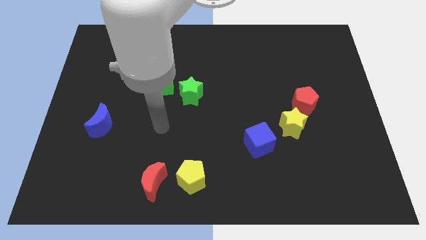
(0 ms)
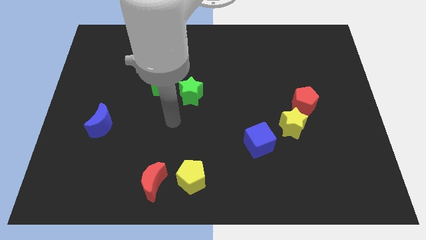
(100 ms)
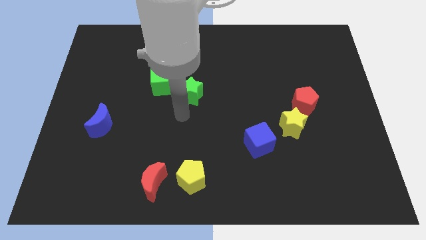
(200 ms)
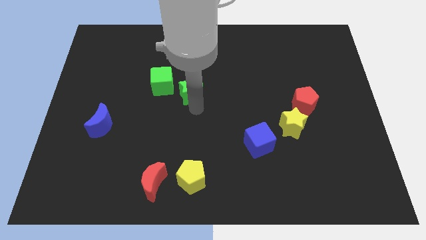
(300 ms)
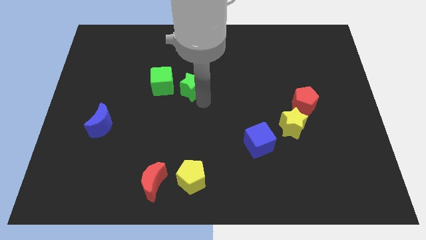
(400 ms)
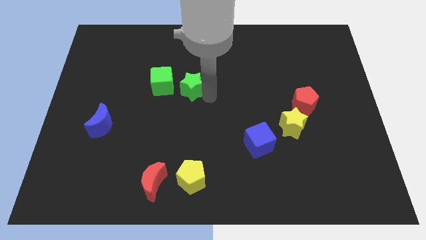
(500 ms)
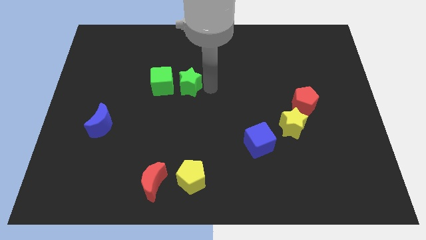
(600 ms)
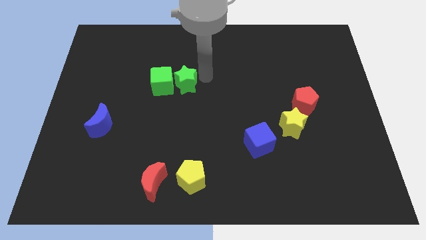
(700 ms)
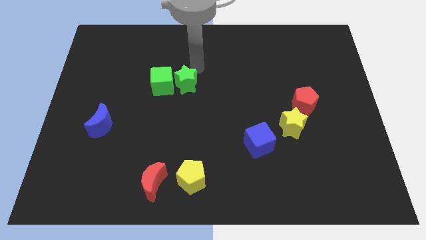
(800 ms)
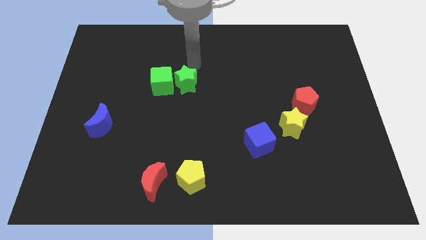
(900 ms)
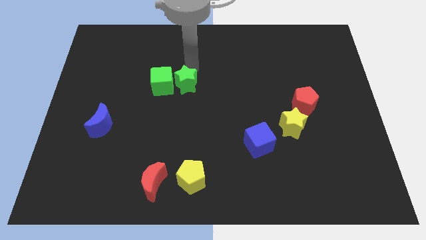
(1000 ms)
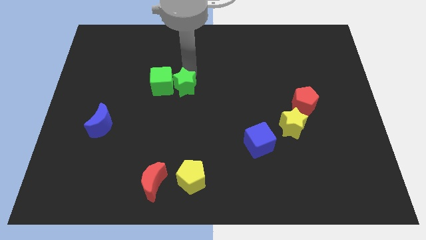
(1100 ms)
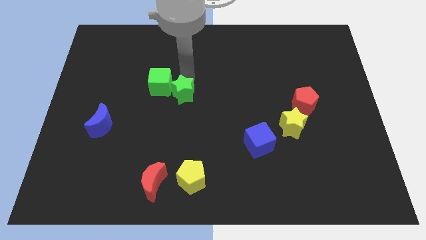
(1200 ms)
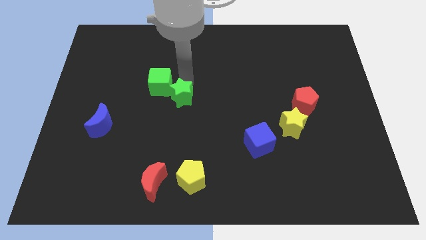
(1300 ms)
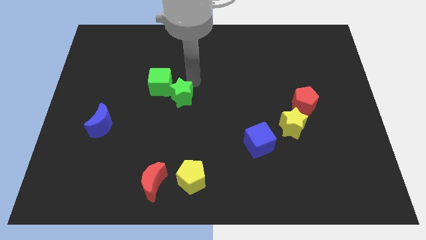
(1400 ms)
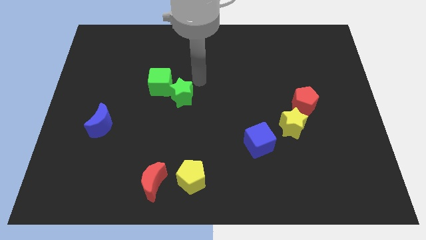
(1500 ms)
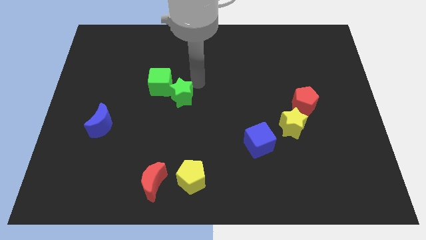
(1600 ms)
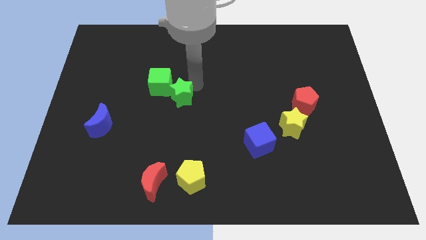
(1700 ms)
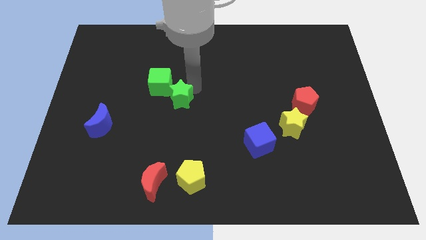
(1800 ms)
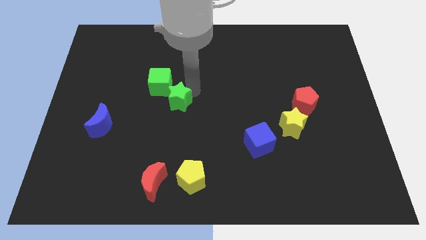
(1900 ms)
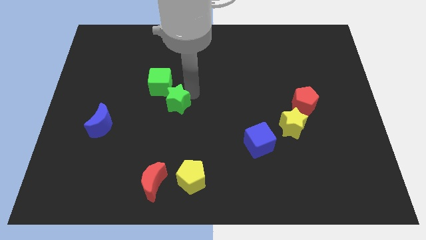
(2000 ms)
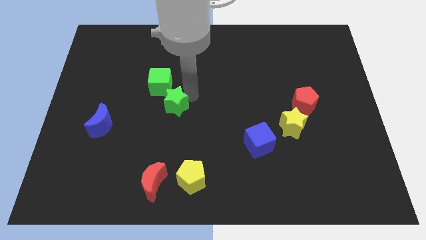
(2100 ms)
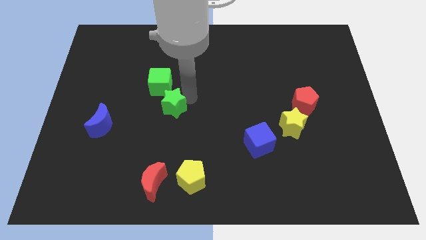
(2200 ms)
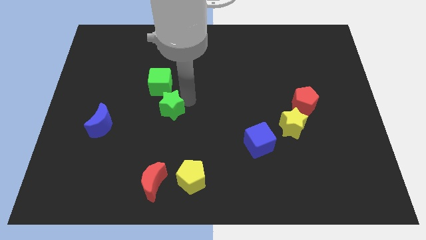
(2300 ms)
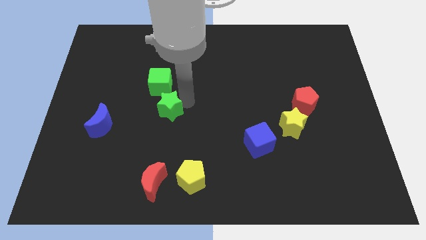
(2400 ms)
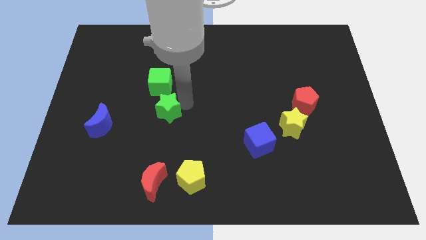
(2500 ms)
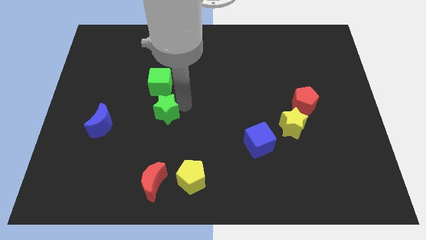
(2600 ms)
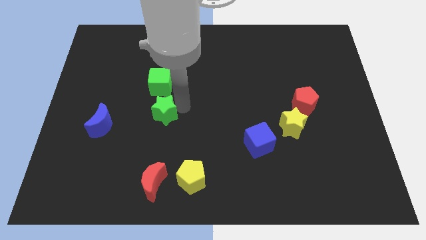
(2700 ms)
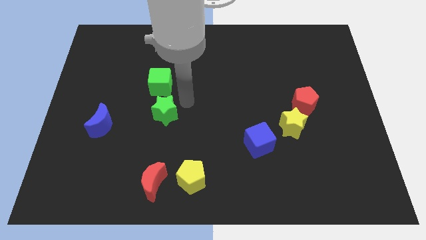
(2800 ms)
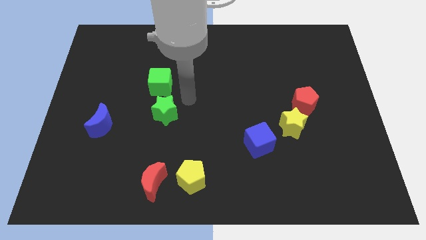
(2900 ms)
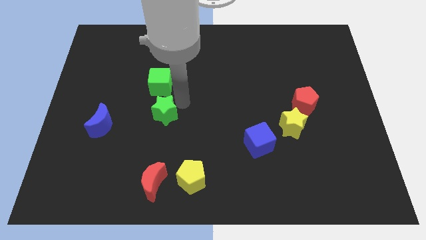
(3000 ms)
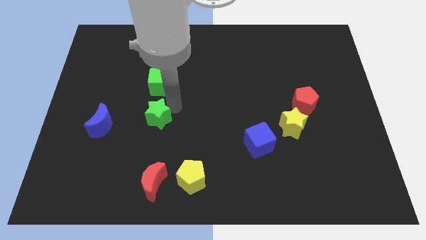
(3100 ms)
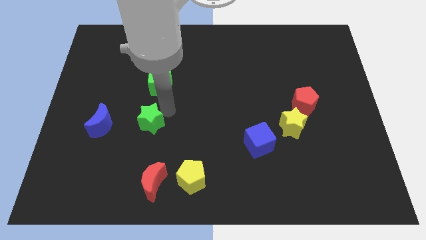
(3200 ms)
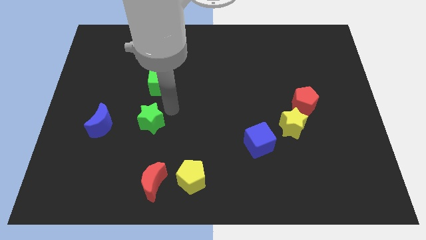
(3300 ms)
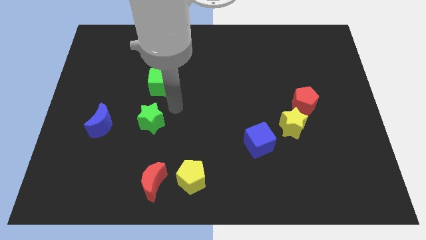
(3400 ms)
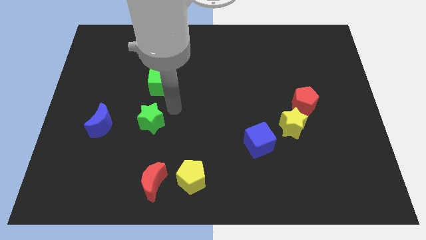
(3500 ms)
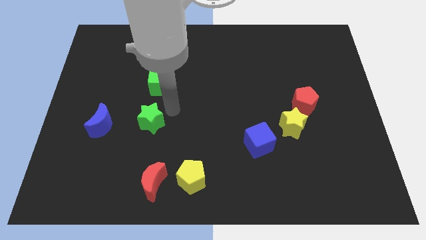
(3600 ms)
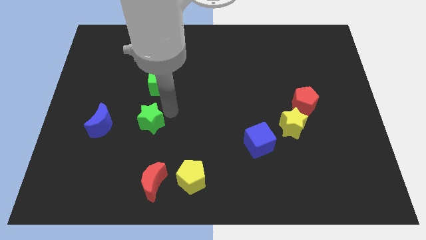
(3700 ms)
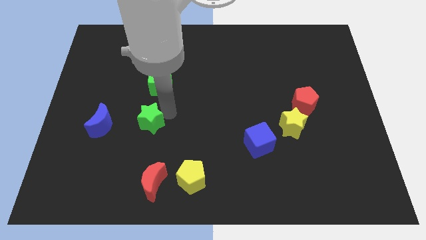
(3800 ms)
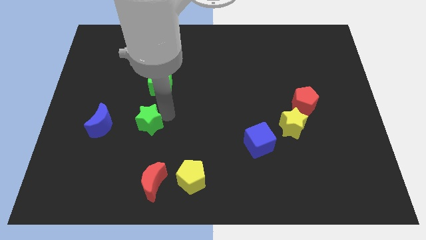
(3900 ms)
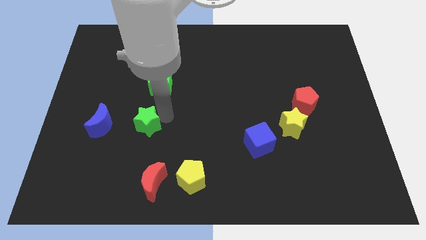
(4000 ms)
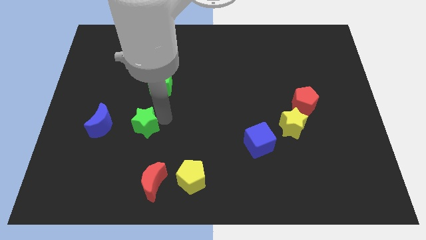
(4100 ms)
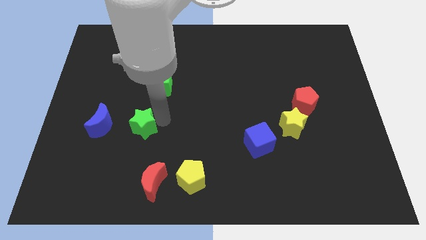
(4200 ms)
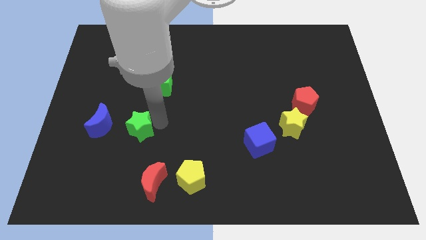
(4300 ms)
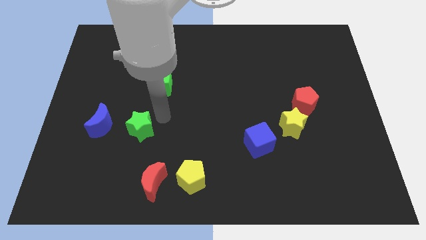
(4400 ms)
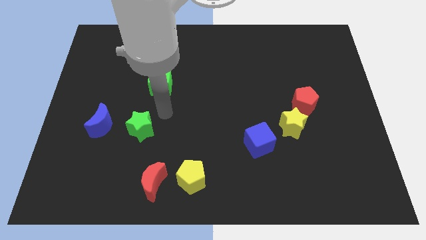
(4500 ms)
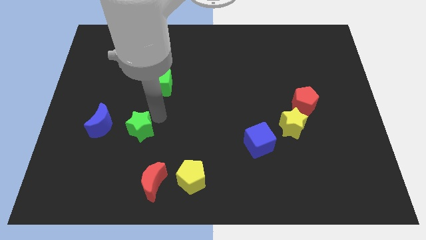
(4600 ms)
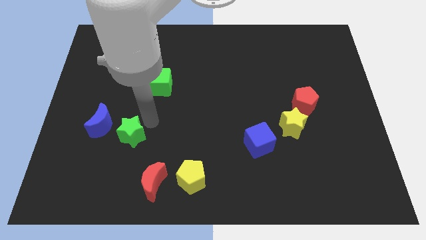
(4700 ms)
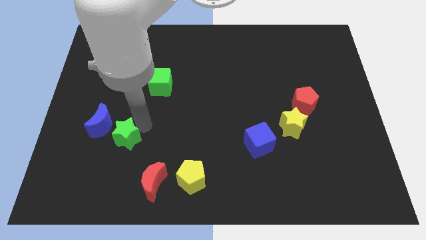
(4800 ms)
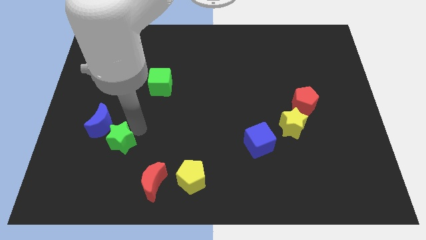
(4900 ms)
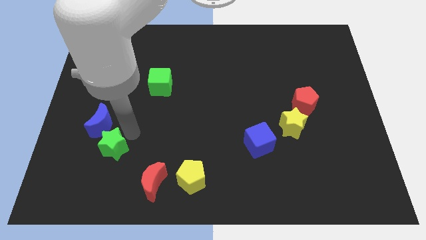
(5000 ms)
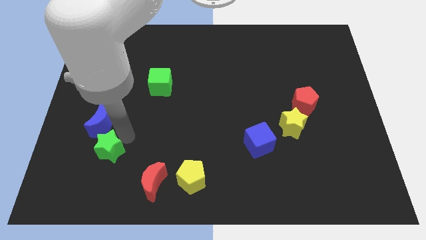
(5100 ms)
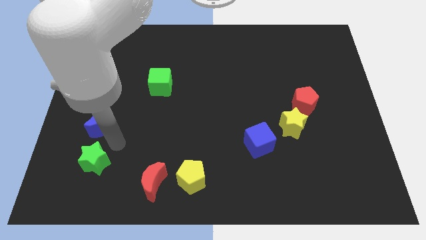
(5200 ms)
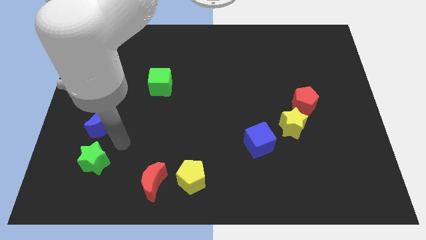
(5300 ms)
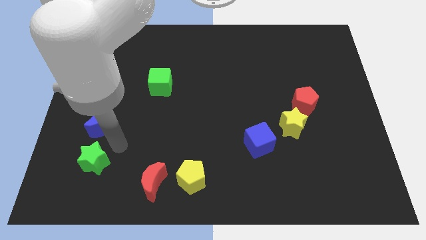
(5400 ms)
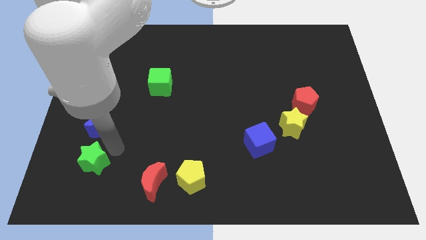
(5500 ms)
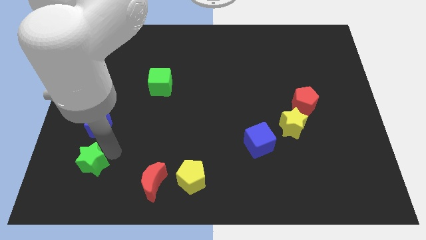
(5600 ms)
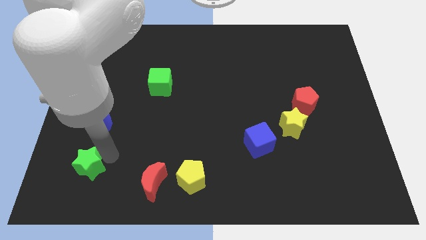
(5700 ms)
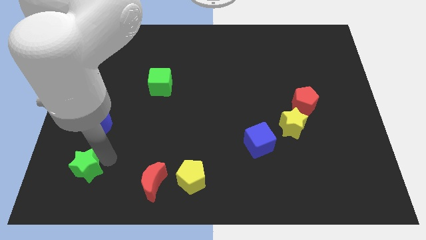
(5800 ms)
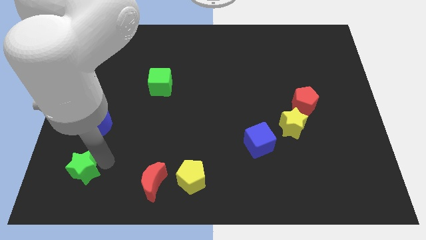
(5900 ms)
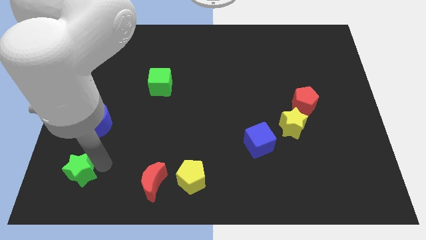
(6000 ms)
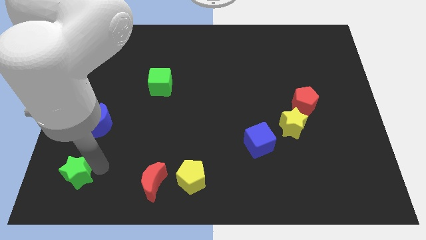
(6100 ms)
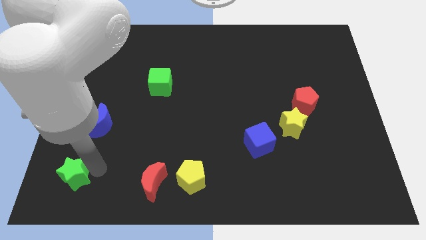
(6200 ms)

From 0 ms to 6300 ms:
move the green star to the bottom left
